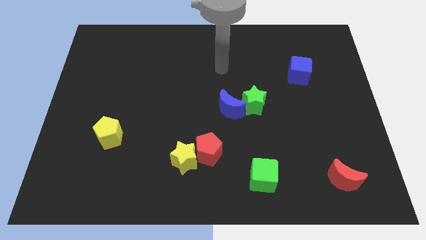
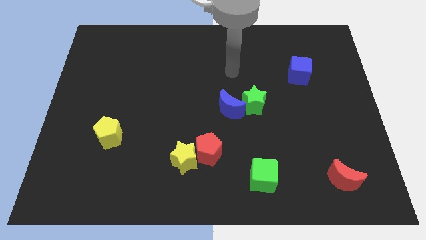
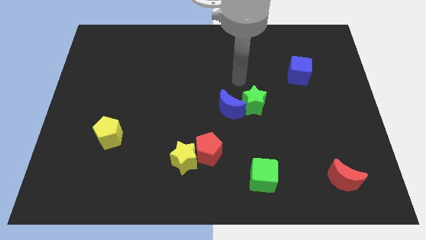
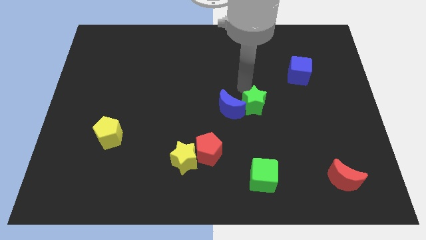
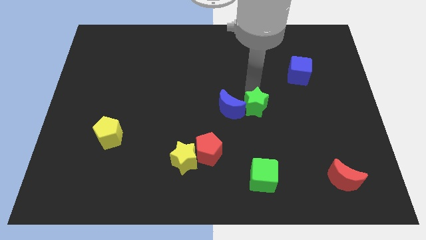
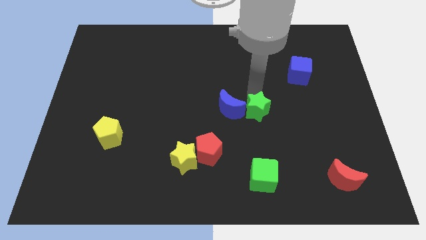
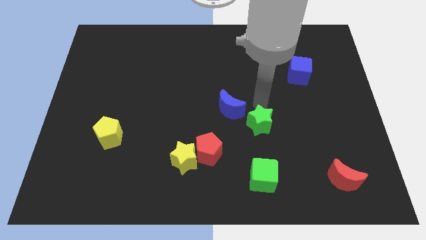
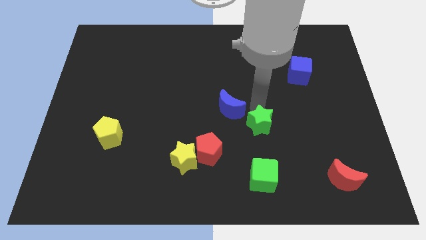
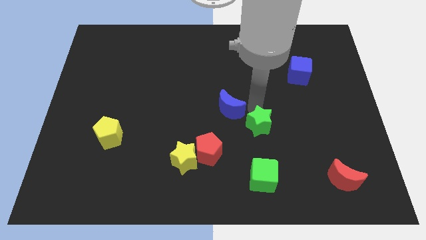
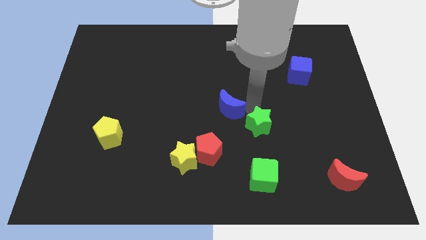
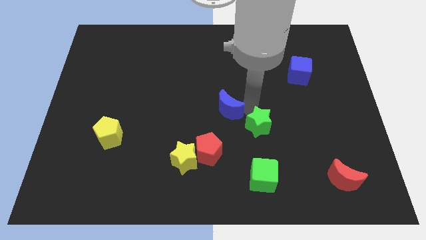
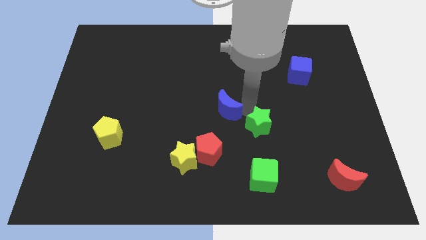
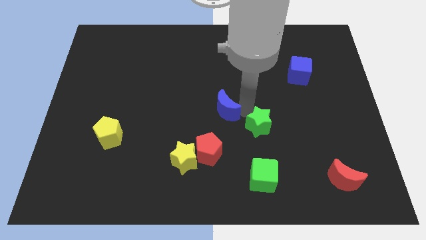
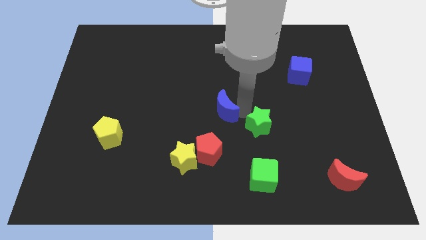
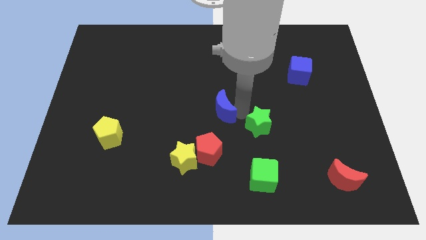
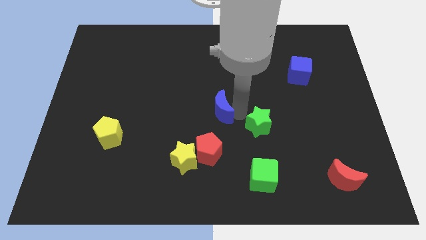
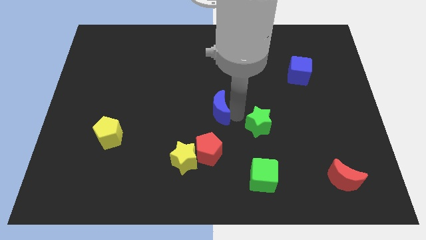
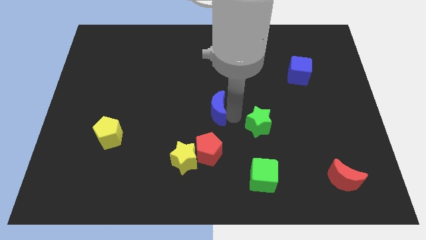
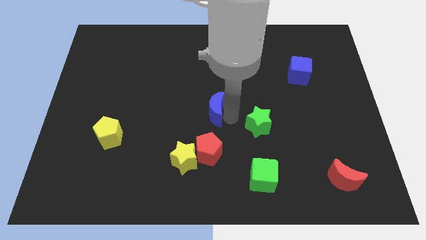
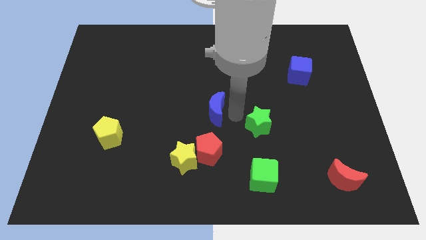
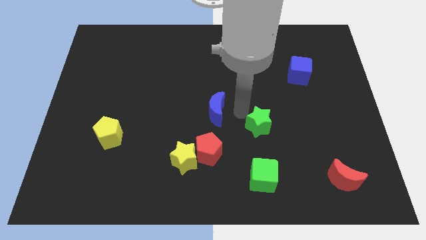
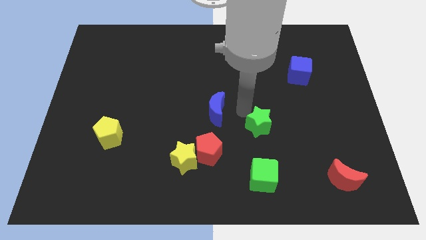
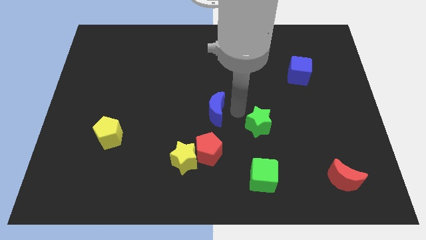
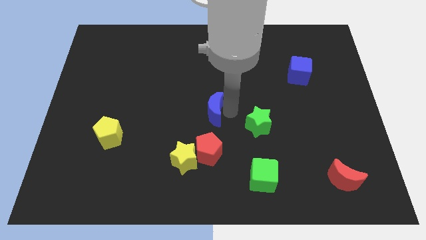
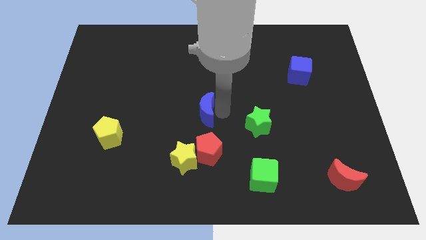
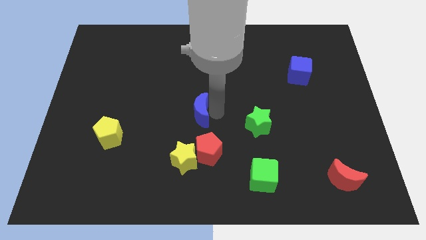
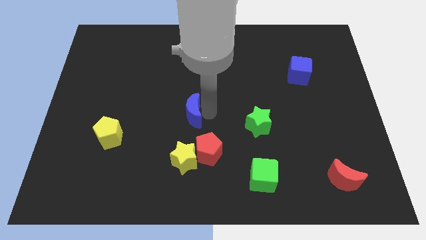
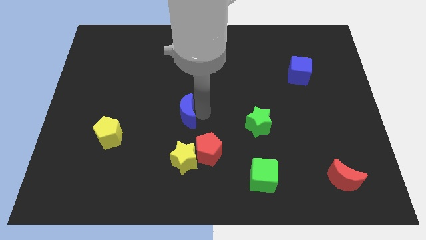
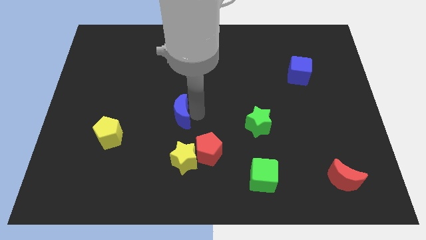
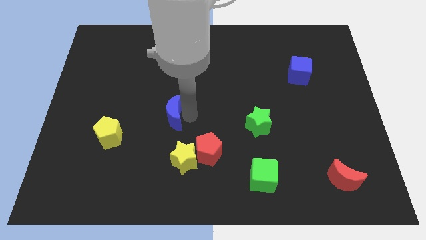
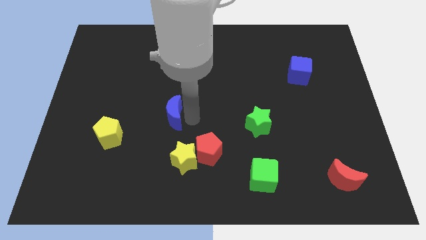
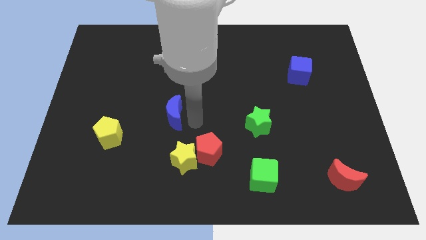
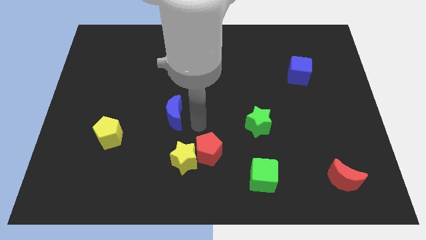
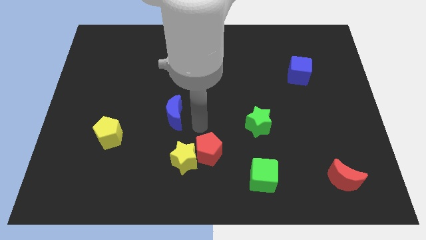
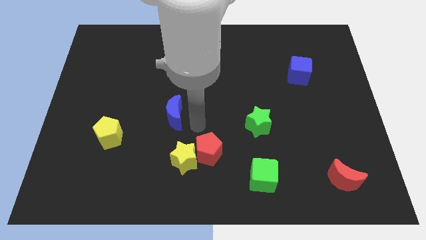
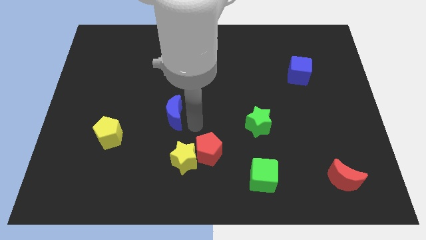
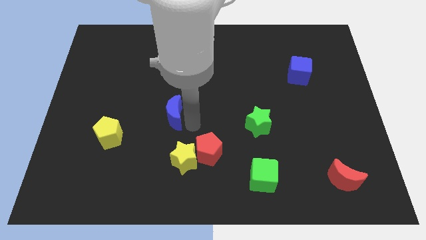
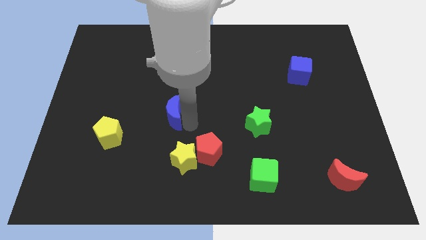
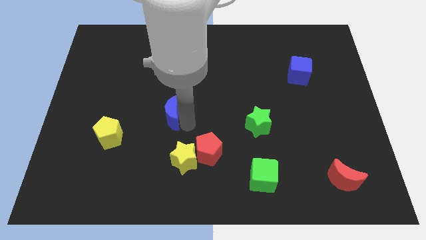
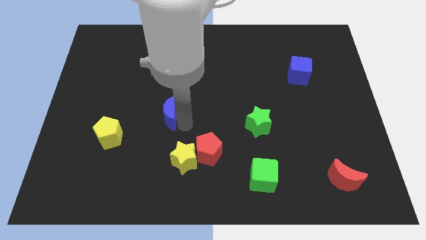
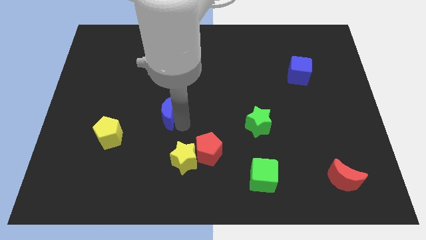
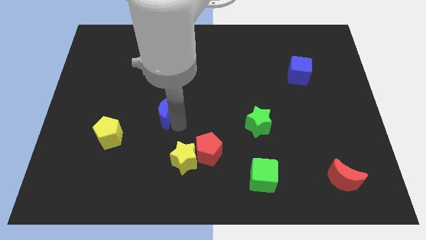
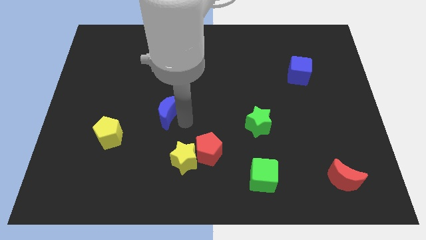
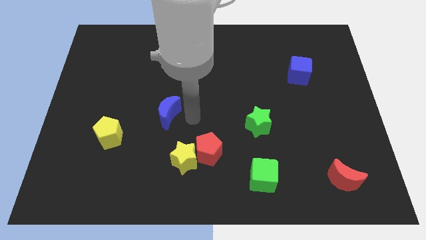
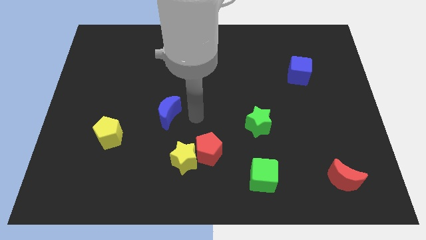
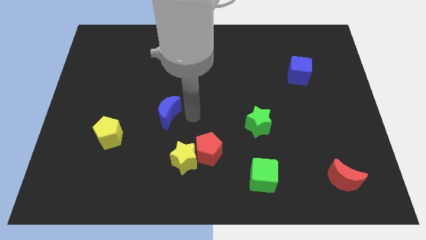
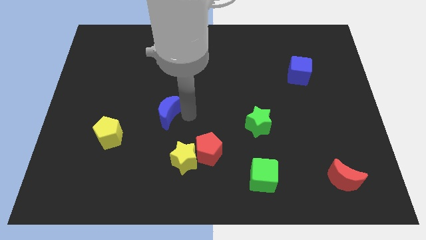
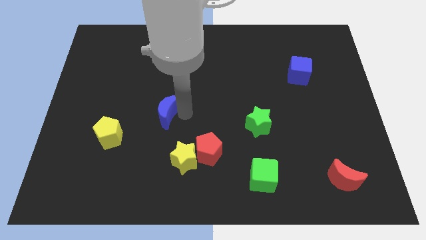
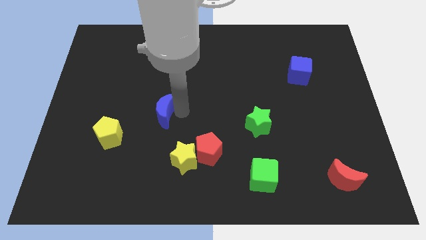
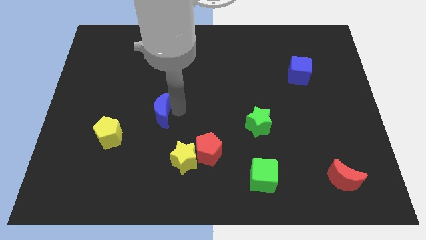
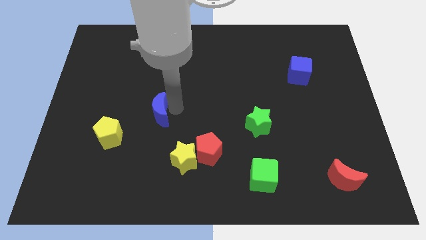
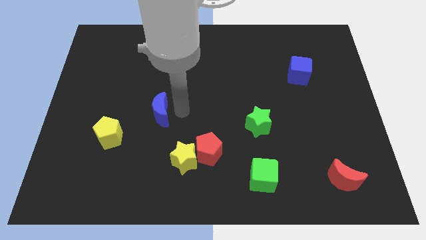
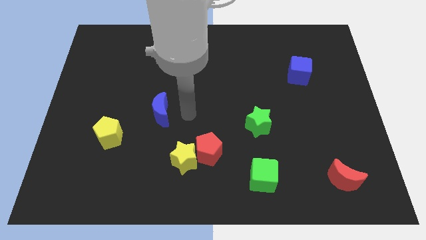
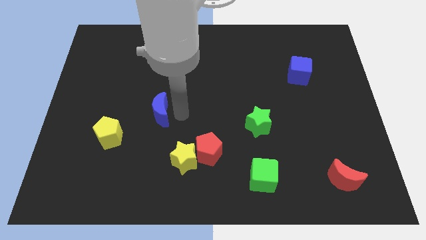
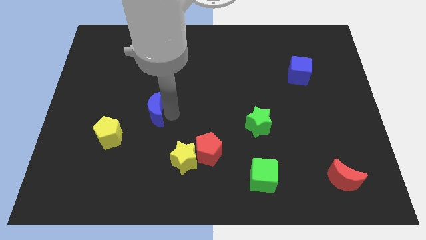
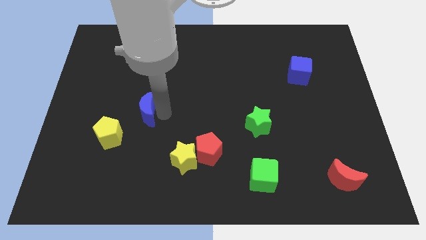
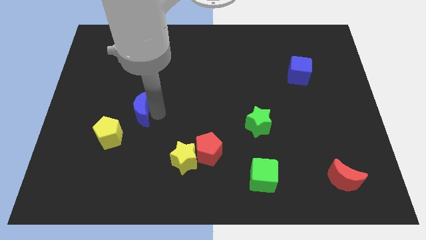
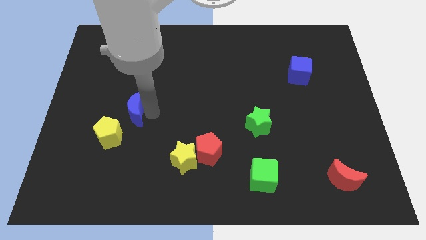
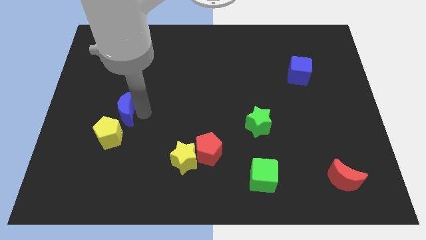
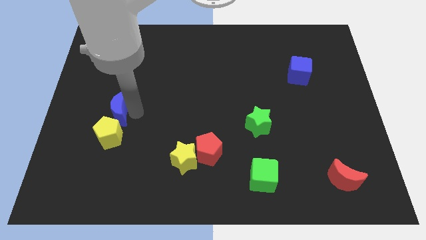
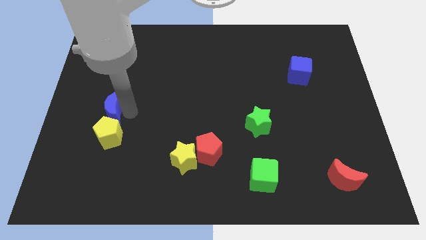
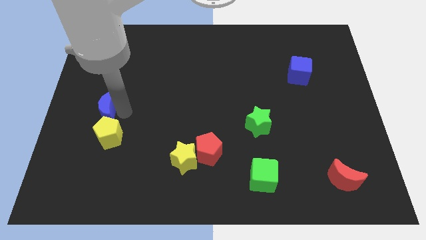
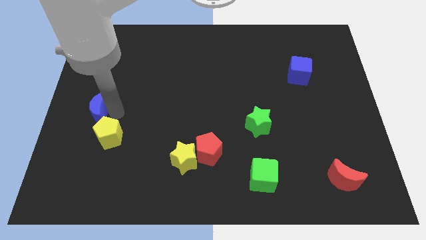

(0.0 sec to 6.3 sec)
push the blue moon to the left side of the board
